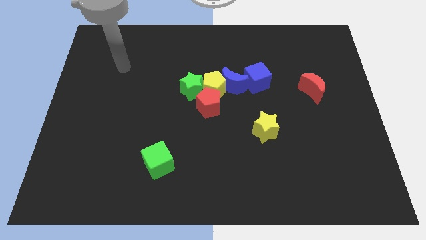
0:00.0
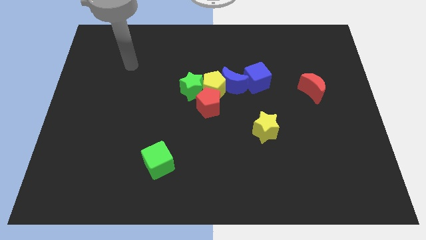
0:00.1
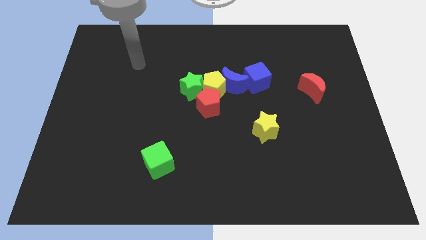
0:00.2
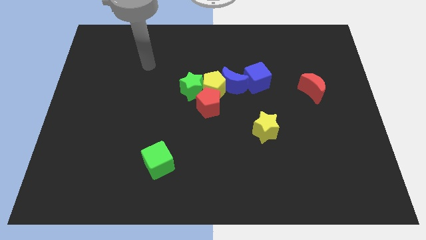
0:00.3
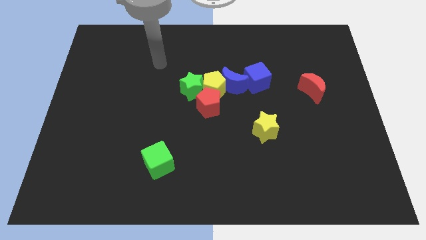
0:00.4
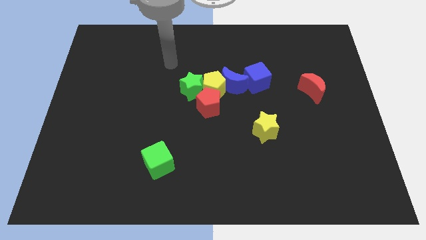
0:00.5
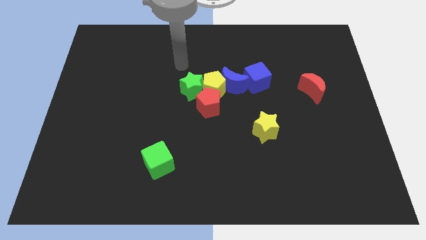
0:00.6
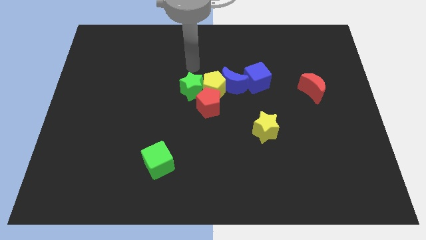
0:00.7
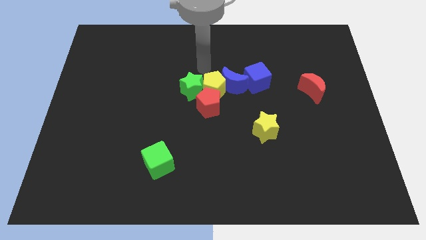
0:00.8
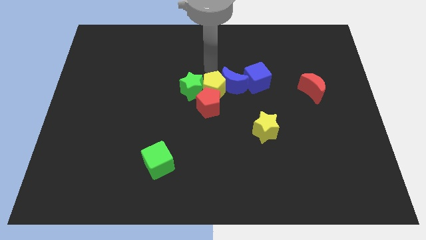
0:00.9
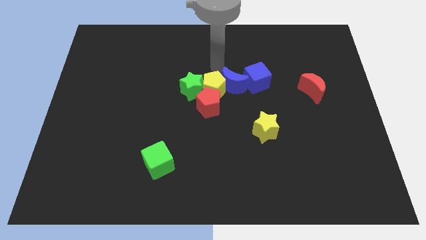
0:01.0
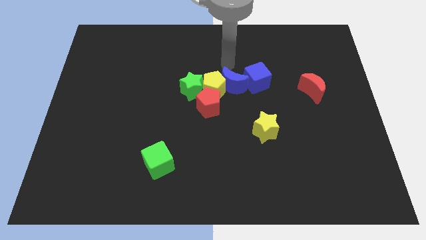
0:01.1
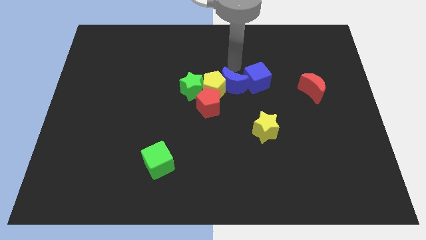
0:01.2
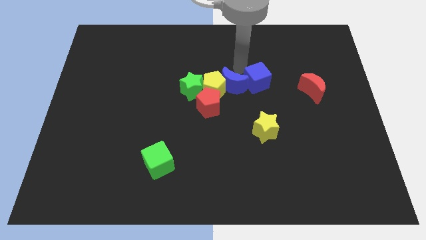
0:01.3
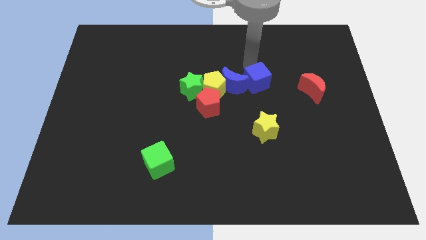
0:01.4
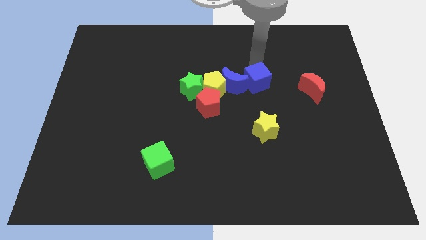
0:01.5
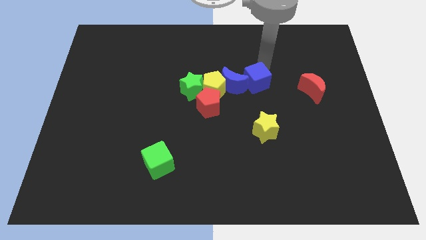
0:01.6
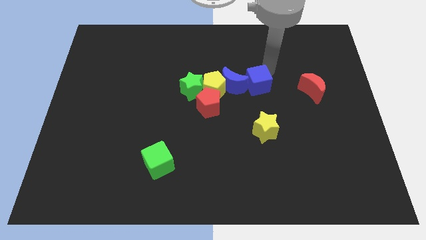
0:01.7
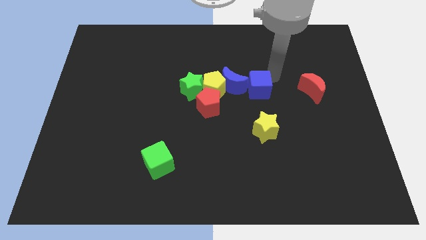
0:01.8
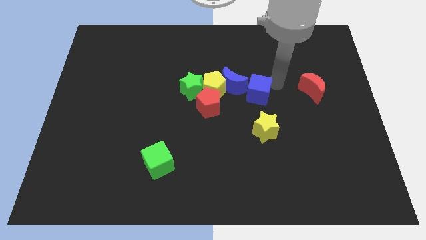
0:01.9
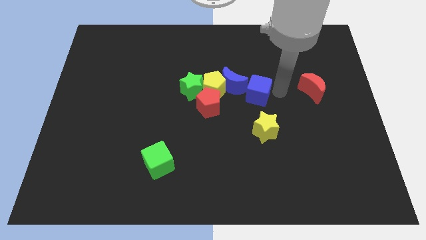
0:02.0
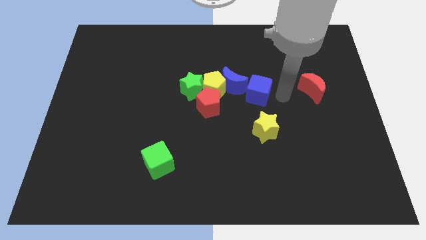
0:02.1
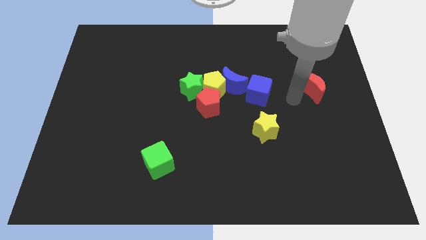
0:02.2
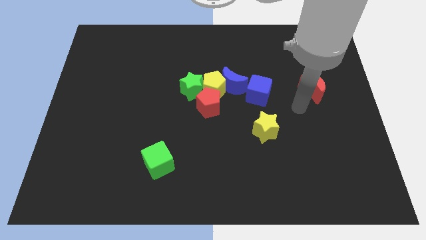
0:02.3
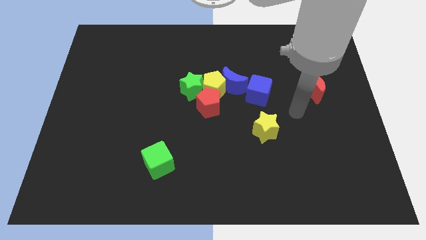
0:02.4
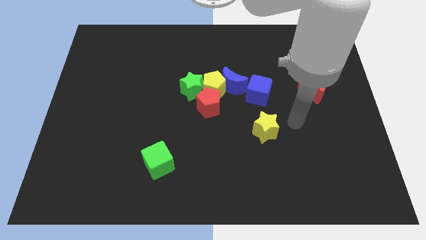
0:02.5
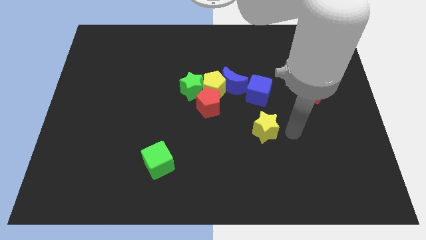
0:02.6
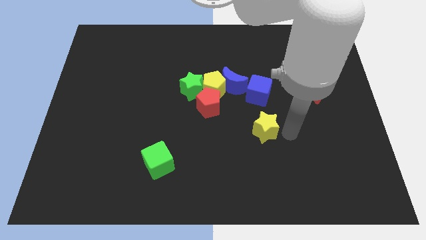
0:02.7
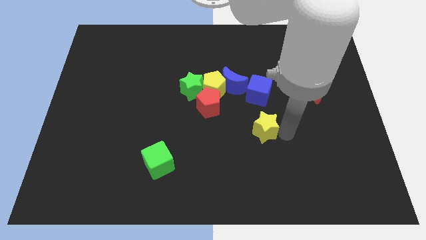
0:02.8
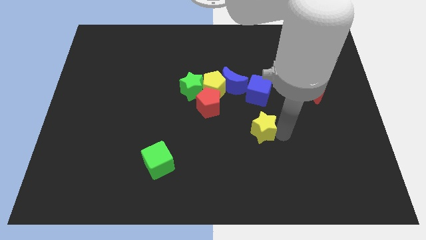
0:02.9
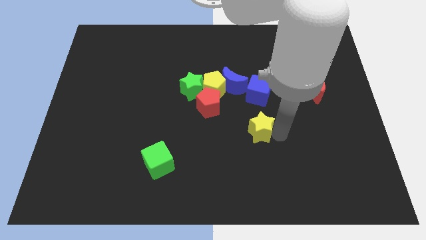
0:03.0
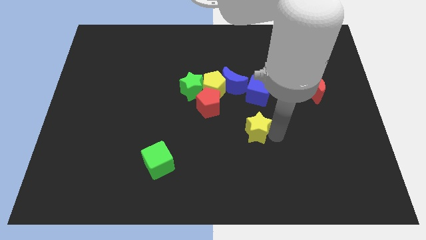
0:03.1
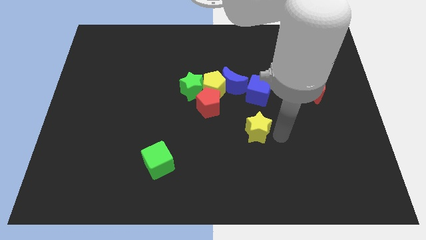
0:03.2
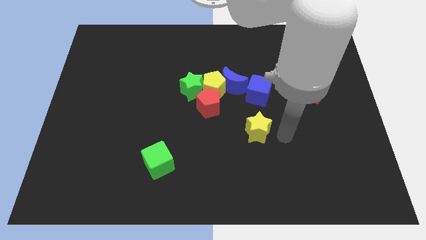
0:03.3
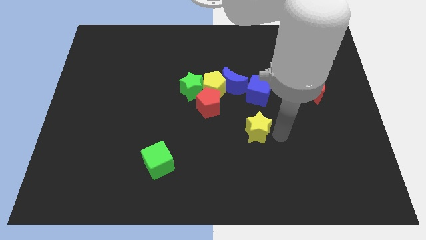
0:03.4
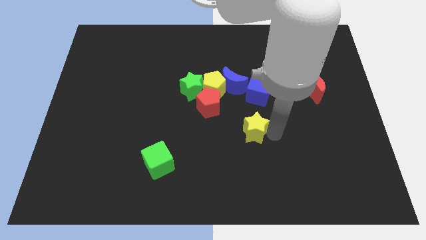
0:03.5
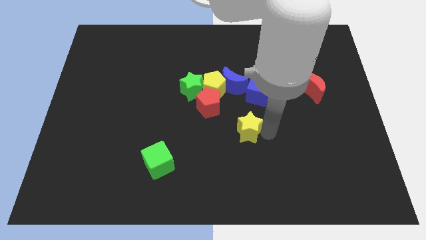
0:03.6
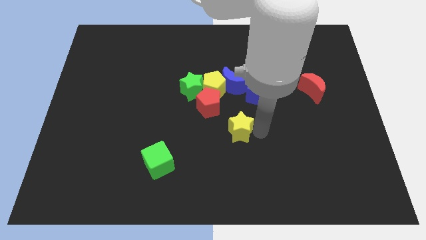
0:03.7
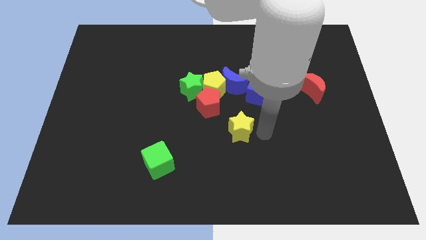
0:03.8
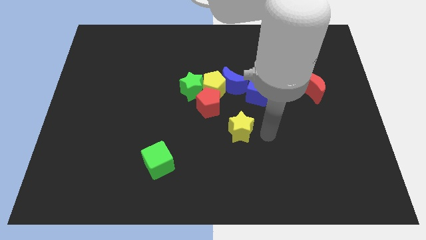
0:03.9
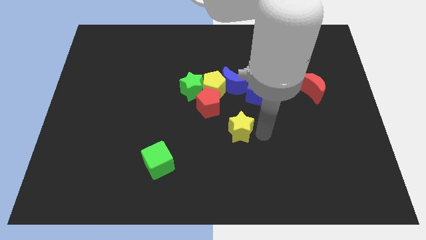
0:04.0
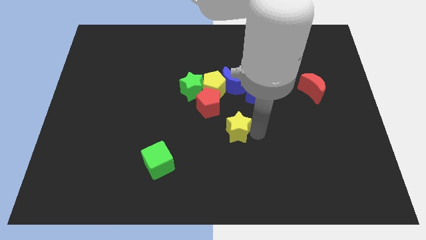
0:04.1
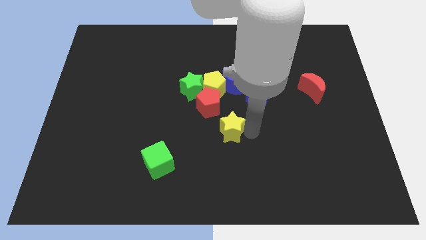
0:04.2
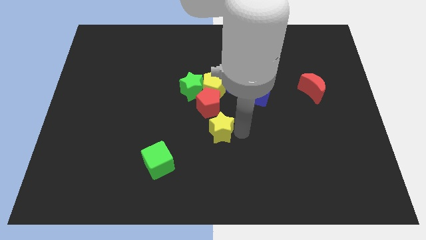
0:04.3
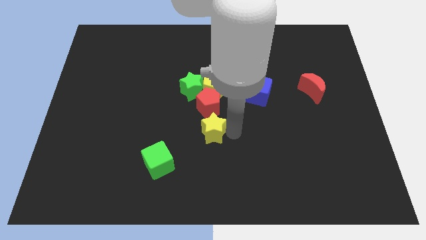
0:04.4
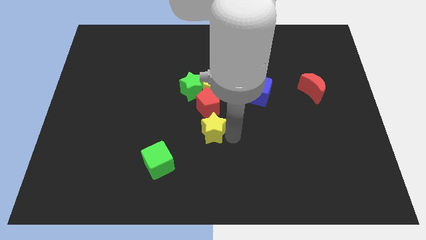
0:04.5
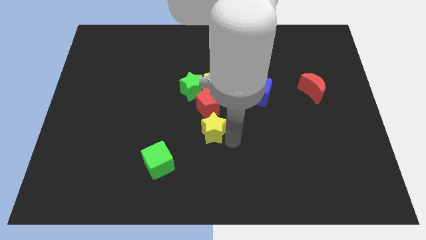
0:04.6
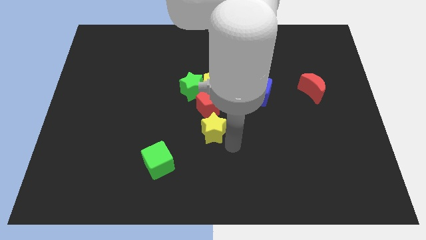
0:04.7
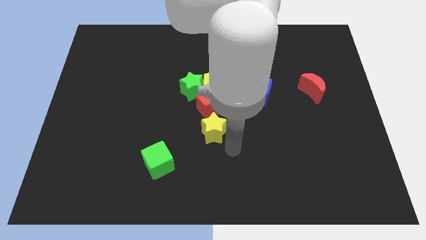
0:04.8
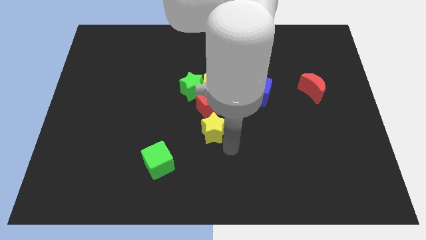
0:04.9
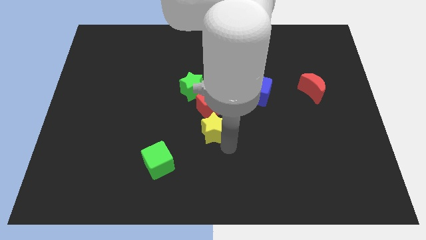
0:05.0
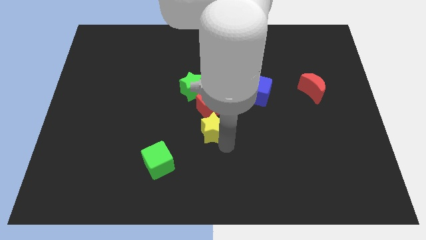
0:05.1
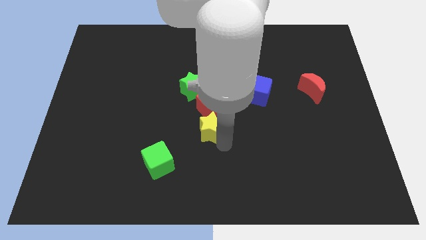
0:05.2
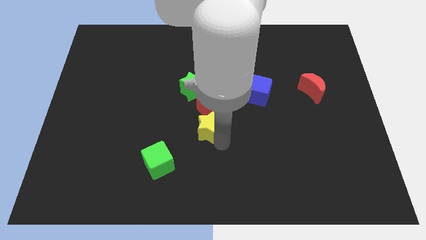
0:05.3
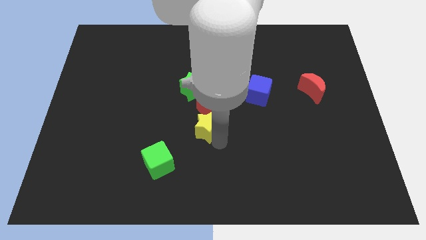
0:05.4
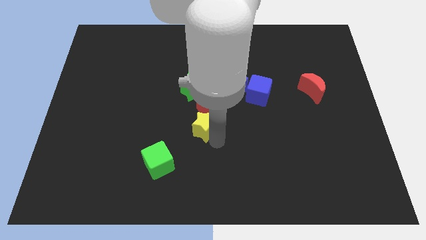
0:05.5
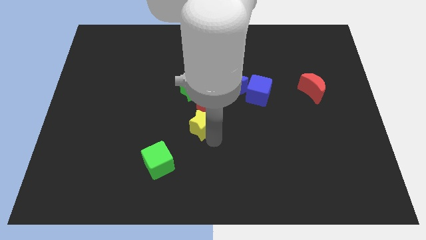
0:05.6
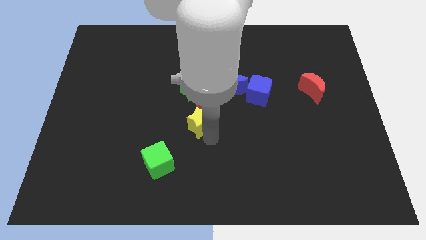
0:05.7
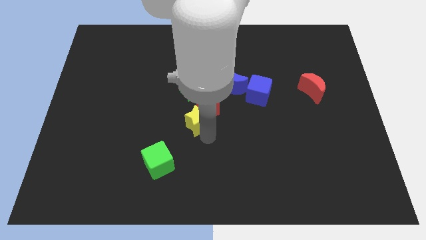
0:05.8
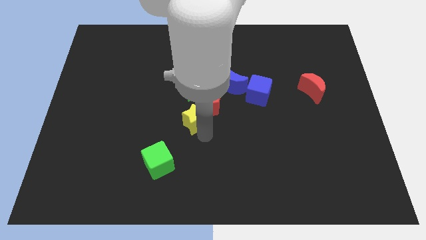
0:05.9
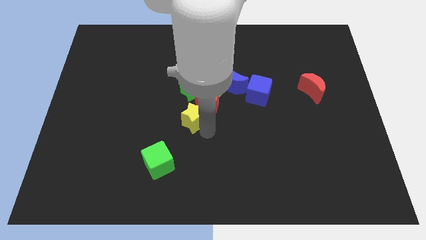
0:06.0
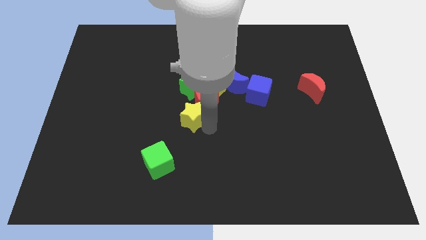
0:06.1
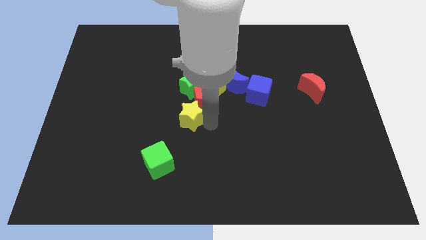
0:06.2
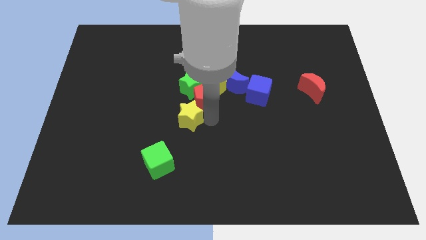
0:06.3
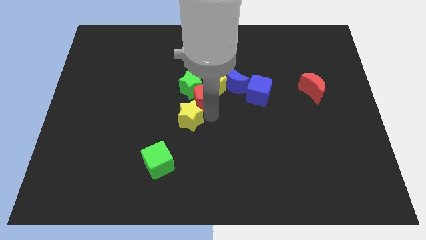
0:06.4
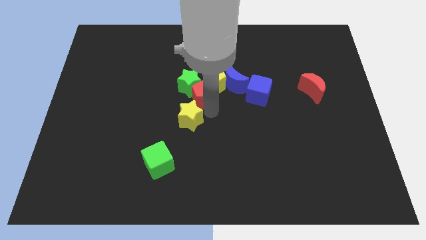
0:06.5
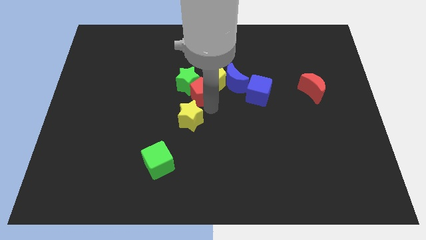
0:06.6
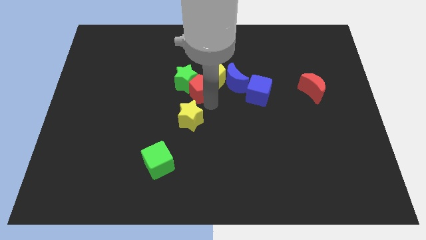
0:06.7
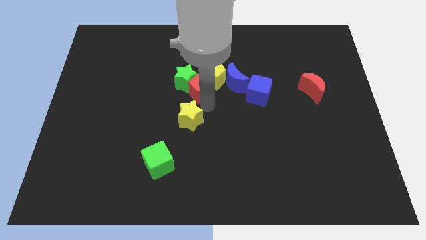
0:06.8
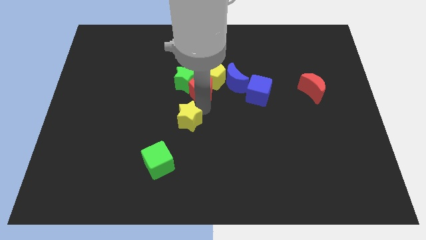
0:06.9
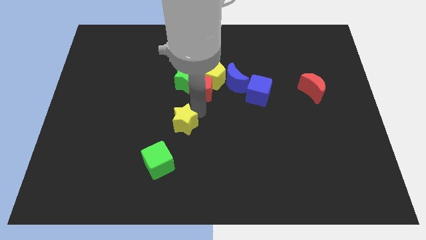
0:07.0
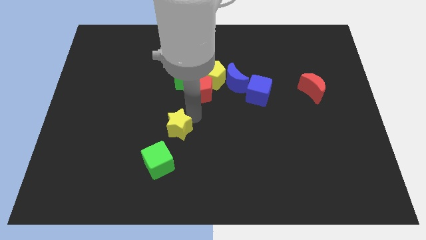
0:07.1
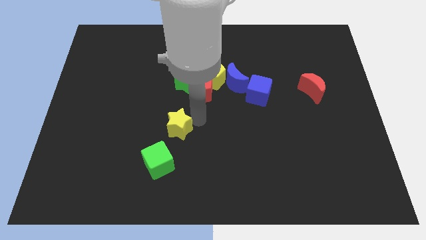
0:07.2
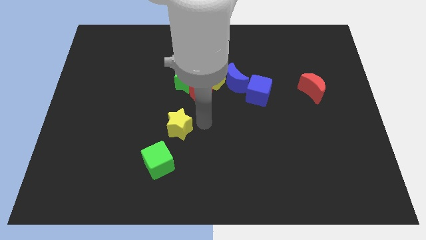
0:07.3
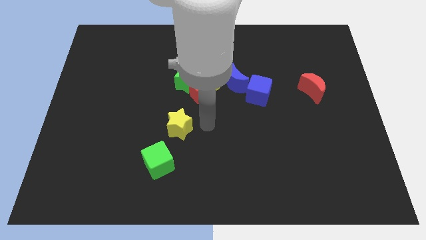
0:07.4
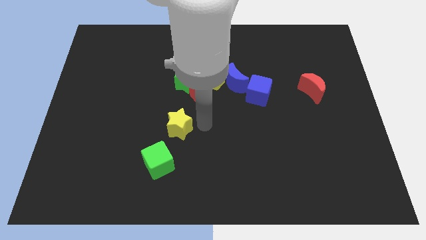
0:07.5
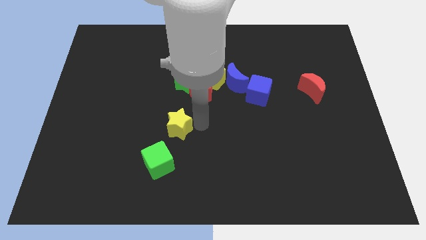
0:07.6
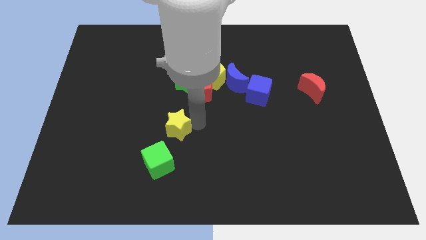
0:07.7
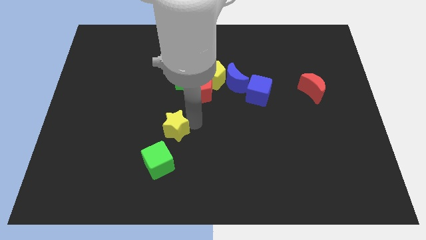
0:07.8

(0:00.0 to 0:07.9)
push the yellow star to the left
